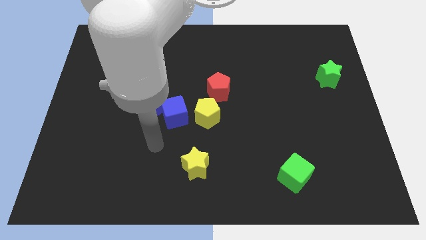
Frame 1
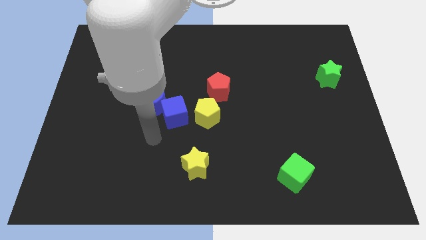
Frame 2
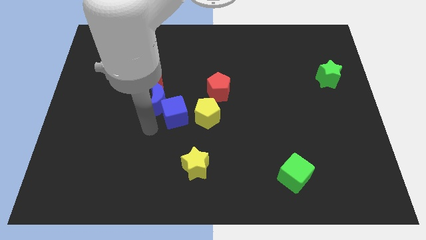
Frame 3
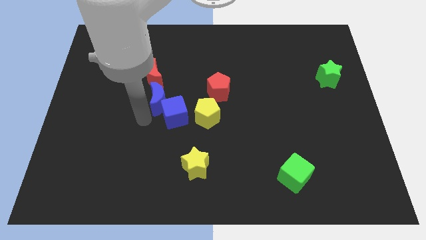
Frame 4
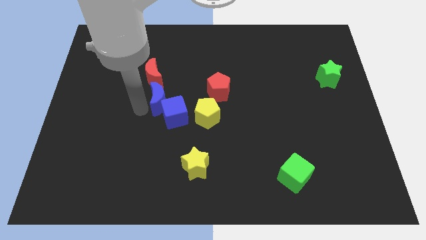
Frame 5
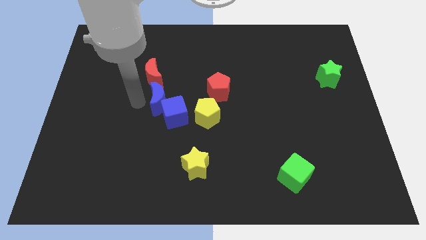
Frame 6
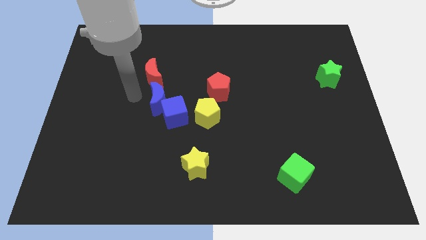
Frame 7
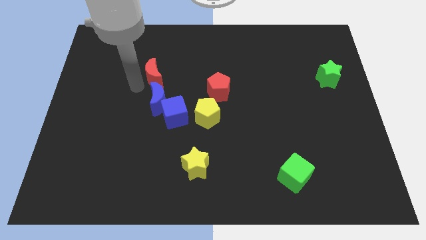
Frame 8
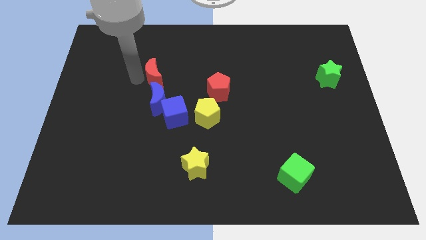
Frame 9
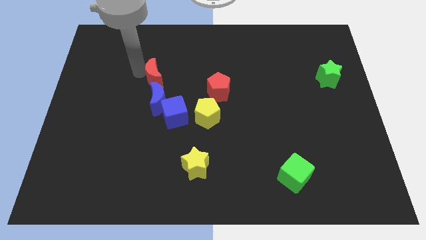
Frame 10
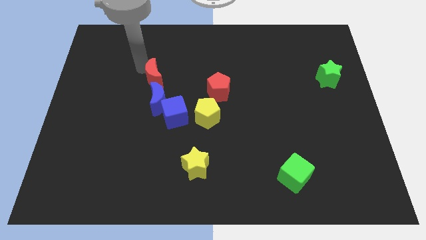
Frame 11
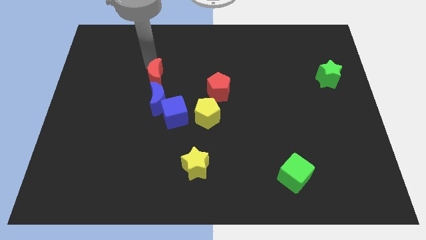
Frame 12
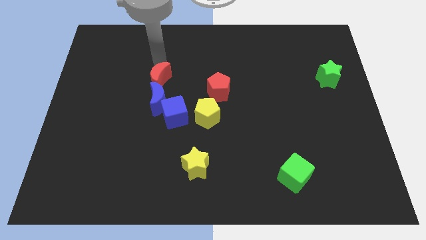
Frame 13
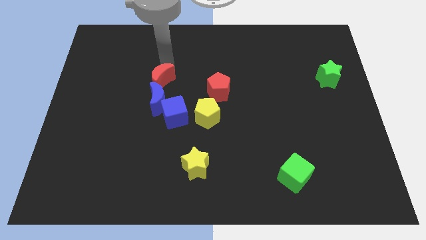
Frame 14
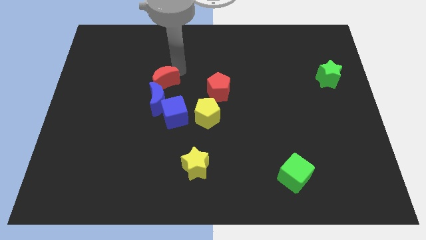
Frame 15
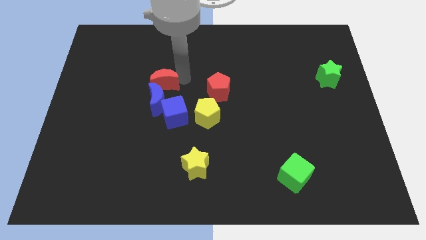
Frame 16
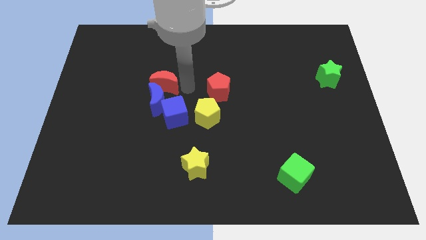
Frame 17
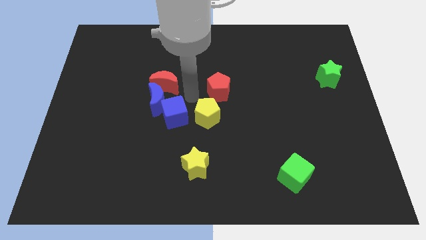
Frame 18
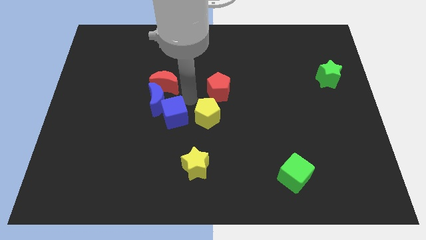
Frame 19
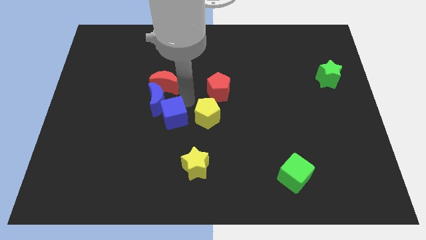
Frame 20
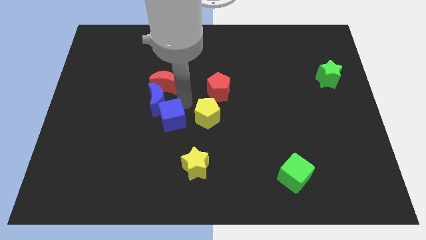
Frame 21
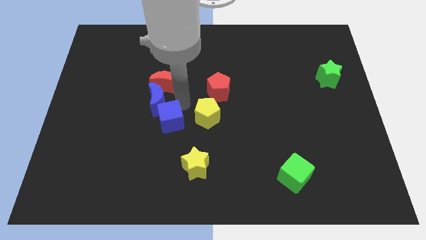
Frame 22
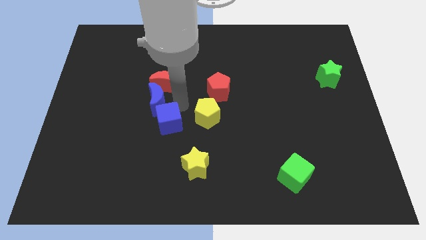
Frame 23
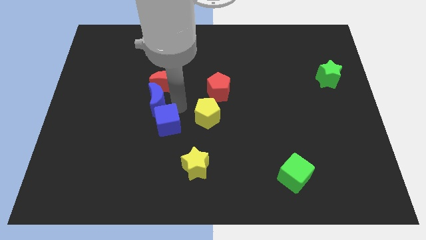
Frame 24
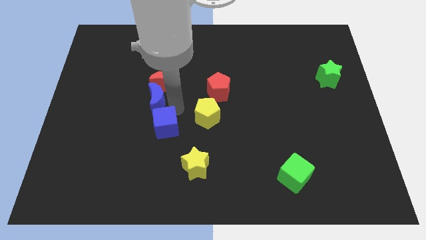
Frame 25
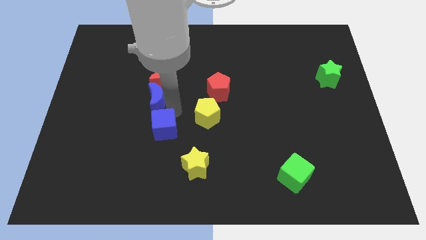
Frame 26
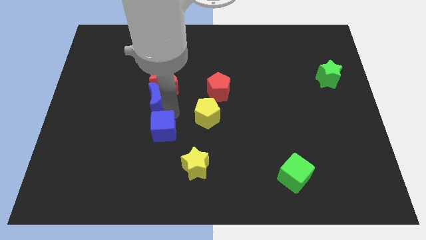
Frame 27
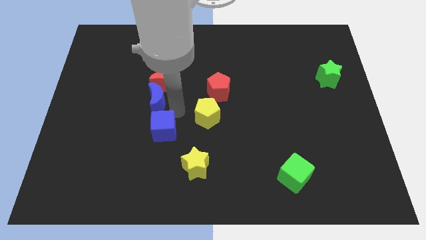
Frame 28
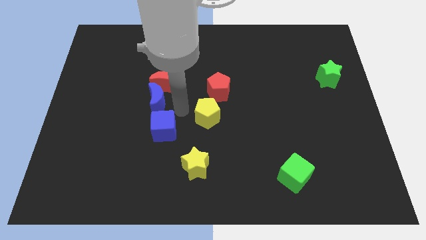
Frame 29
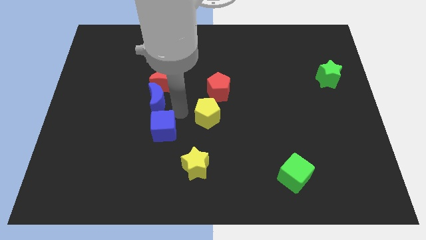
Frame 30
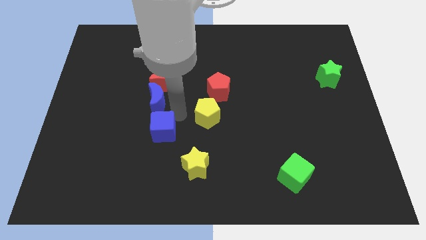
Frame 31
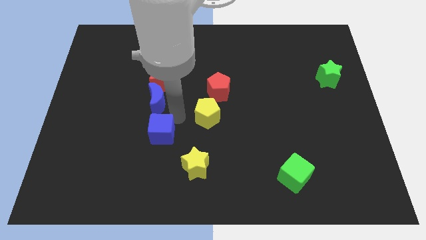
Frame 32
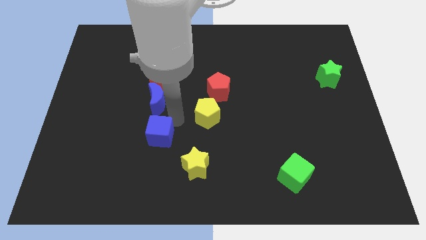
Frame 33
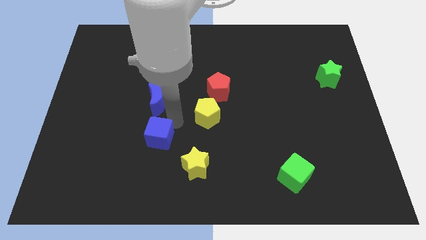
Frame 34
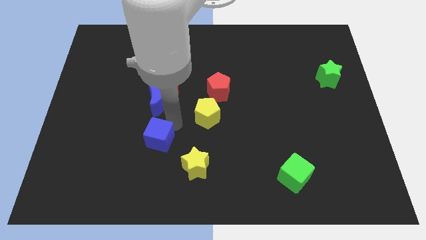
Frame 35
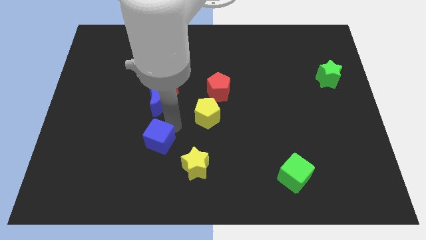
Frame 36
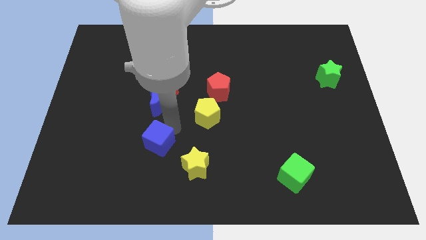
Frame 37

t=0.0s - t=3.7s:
move the blue cube away from the blue moon and yellow pentagon

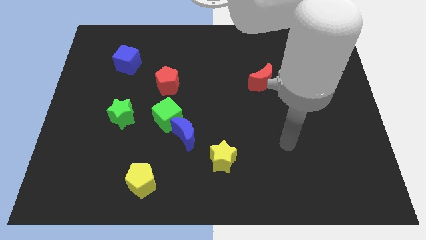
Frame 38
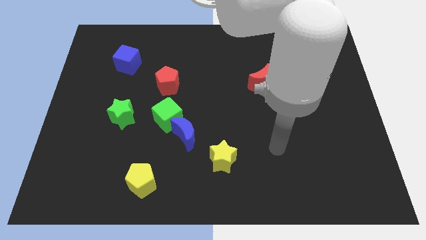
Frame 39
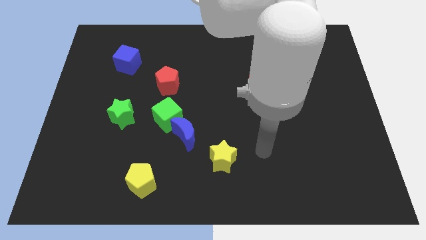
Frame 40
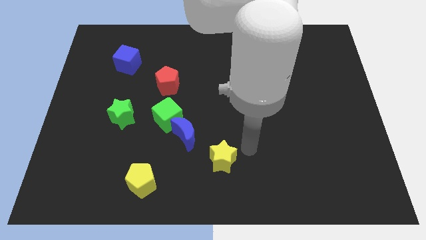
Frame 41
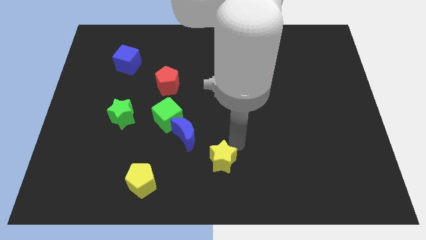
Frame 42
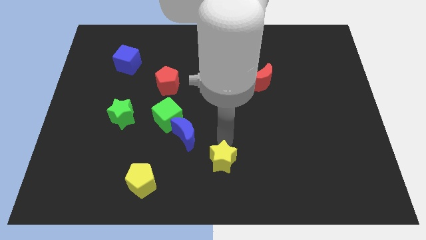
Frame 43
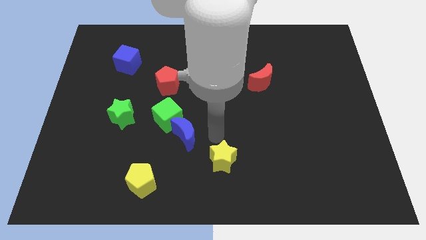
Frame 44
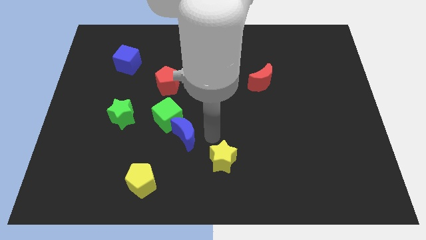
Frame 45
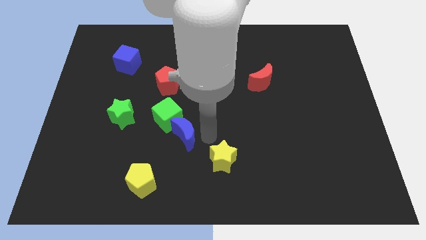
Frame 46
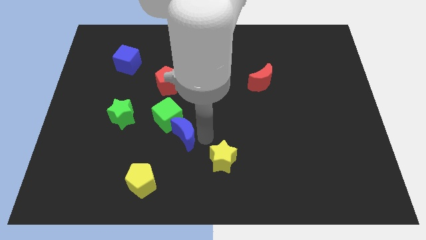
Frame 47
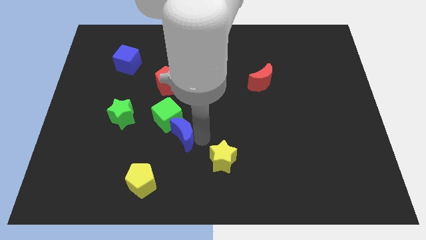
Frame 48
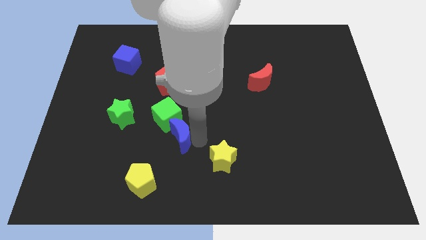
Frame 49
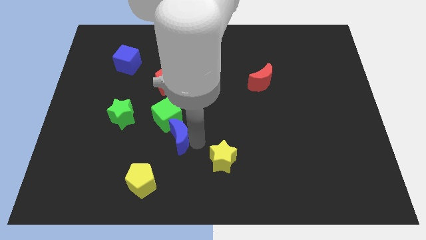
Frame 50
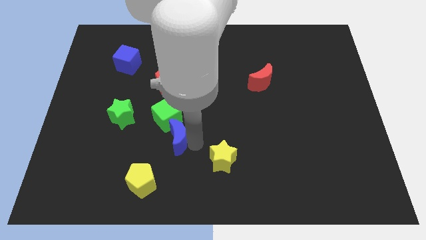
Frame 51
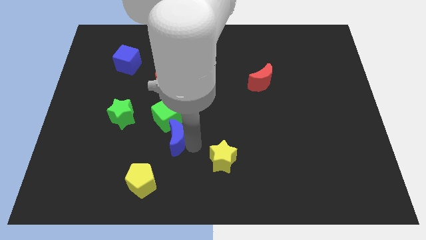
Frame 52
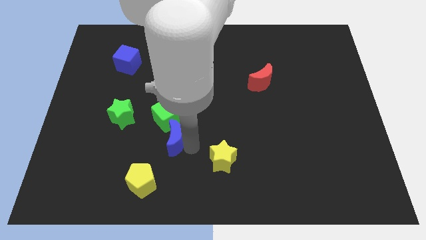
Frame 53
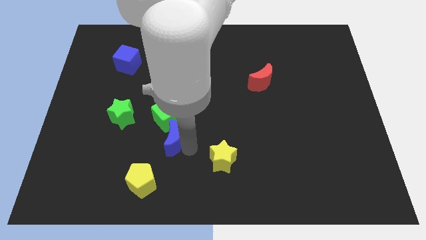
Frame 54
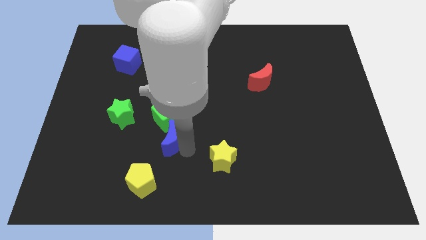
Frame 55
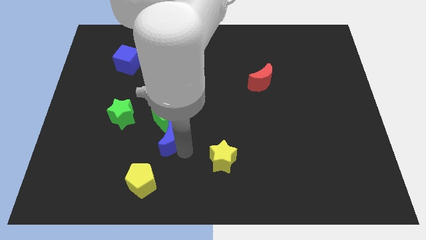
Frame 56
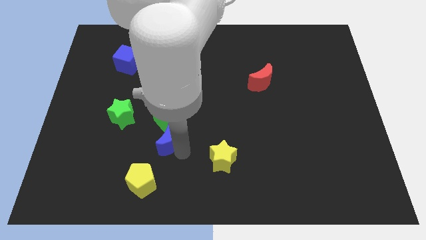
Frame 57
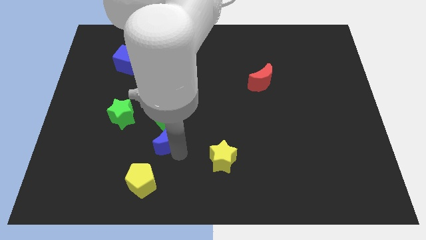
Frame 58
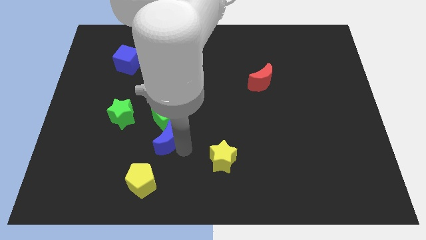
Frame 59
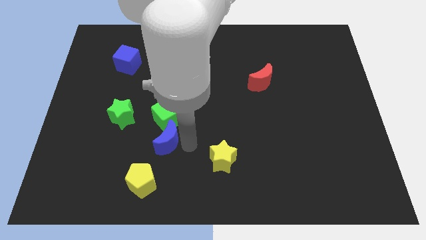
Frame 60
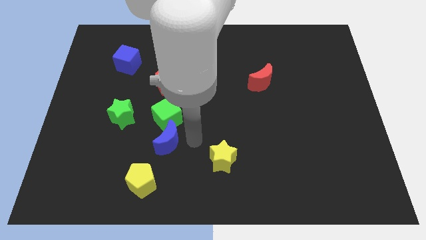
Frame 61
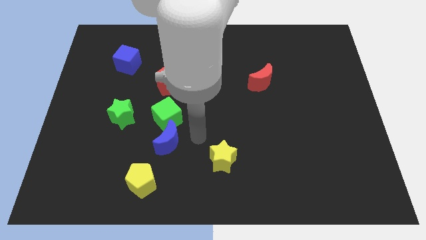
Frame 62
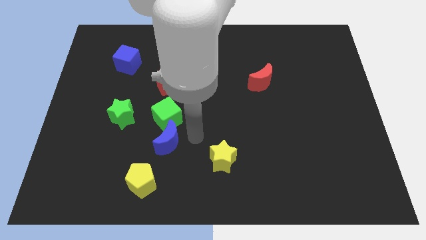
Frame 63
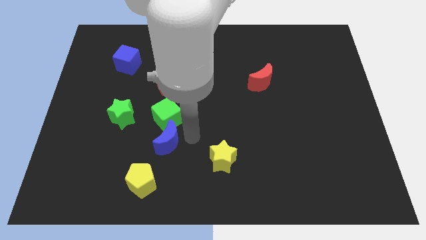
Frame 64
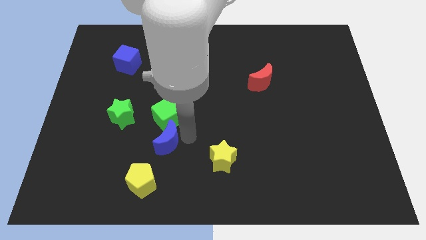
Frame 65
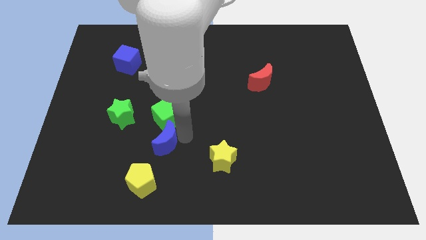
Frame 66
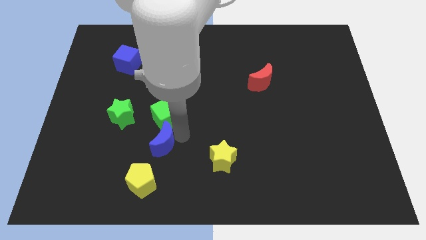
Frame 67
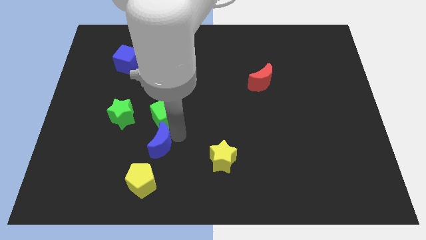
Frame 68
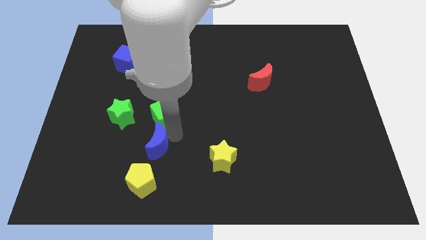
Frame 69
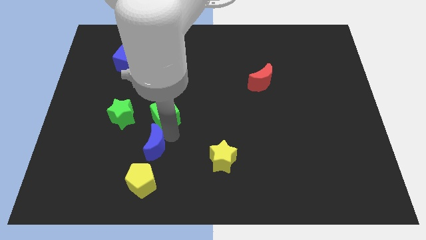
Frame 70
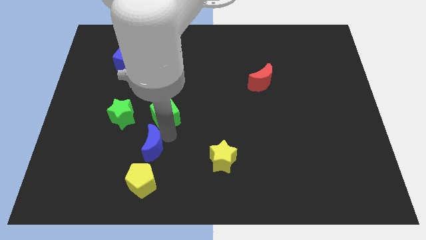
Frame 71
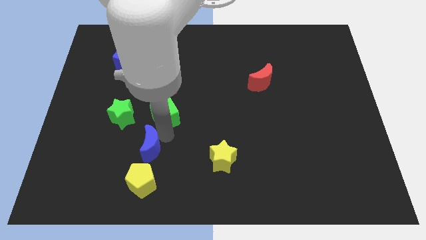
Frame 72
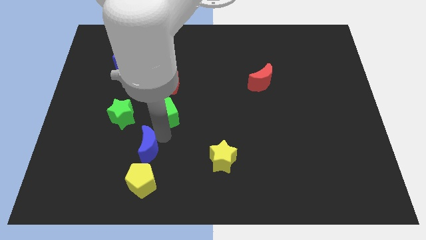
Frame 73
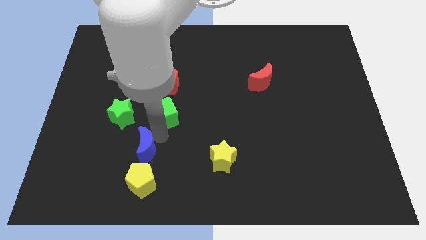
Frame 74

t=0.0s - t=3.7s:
separate the blue moon from the green cube and yellow star

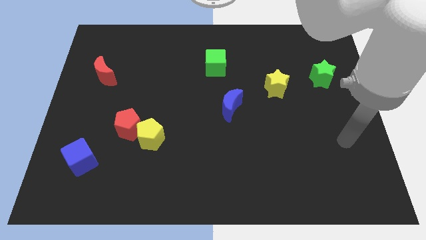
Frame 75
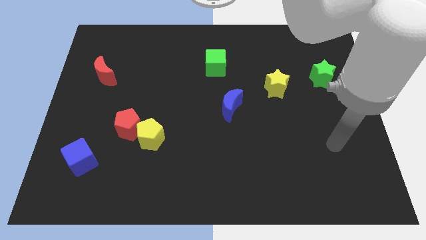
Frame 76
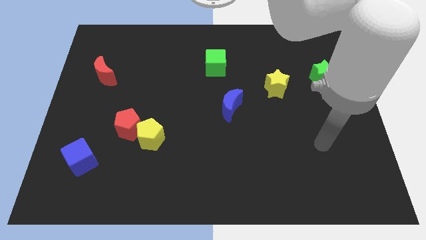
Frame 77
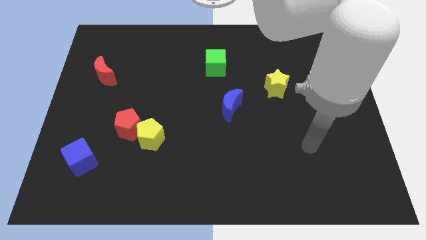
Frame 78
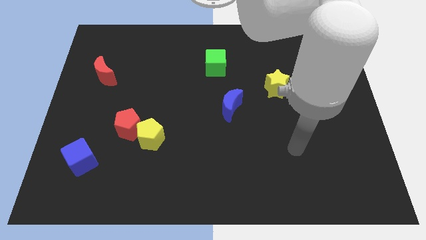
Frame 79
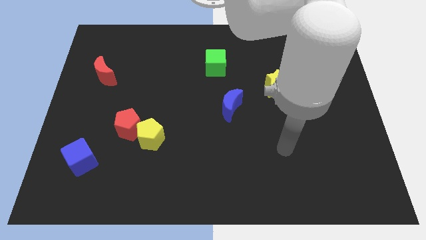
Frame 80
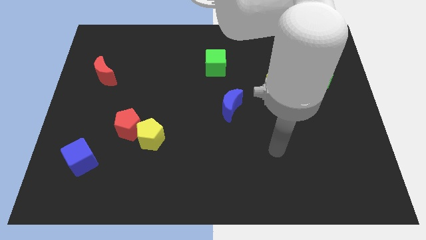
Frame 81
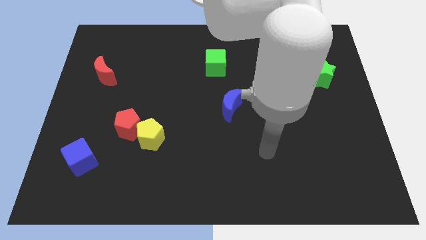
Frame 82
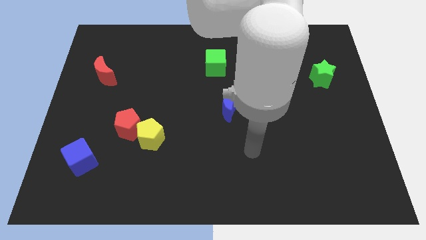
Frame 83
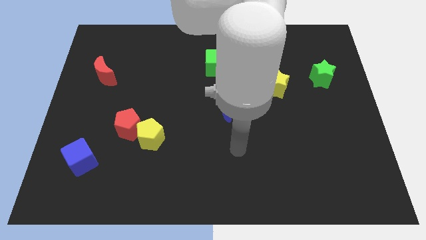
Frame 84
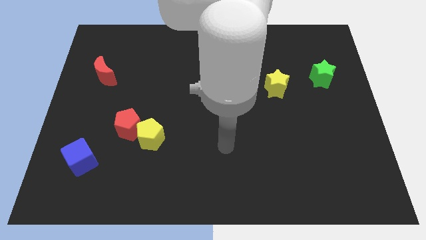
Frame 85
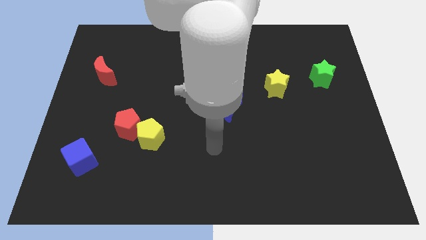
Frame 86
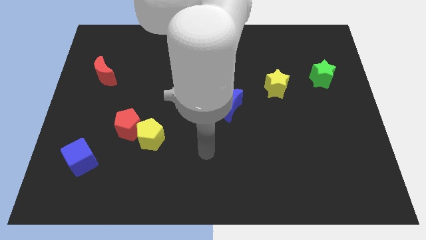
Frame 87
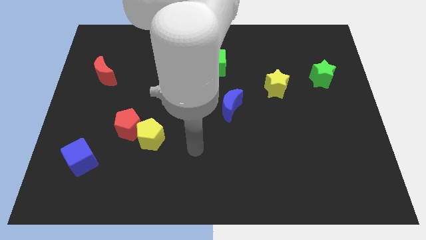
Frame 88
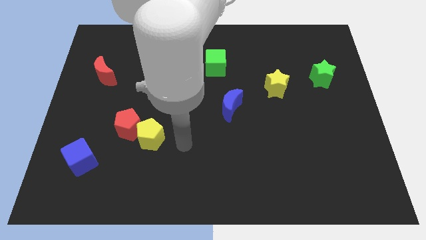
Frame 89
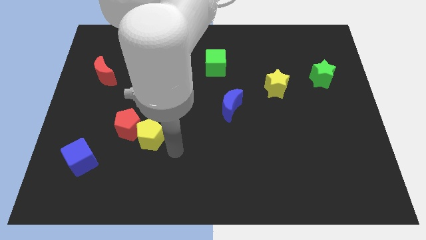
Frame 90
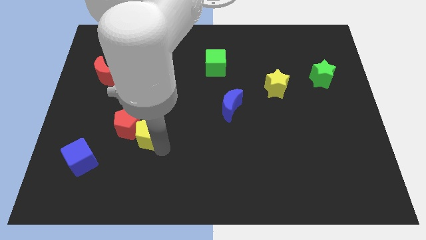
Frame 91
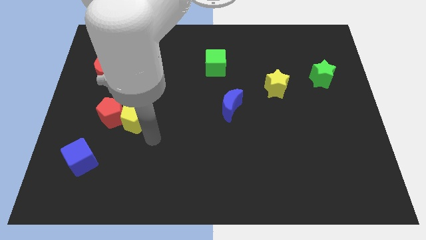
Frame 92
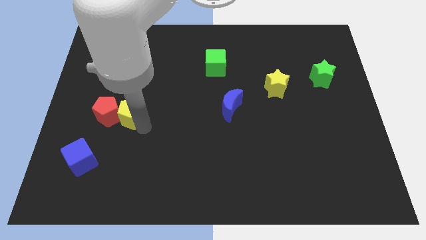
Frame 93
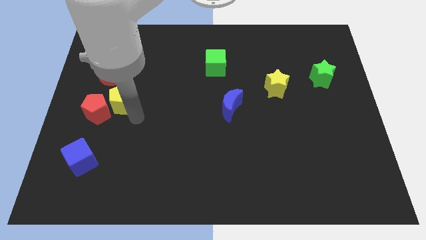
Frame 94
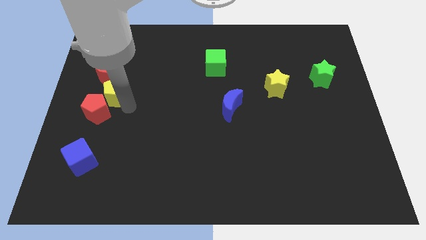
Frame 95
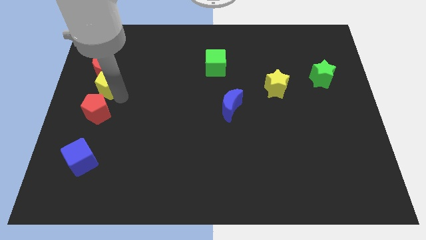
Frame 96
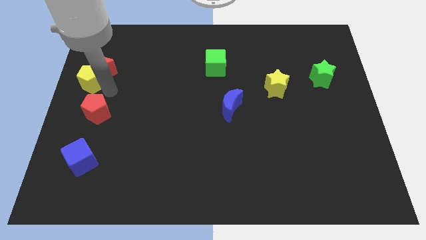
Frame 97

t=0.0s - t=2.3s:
move the red pentagon away from the yellow pentagon
